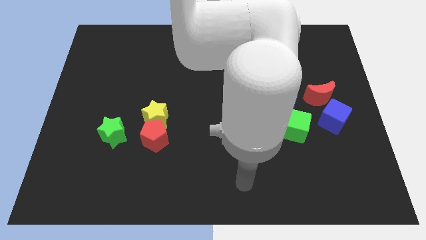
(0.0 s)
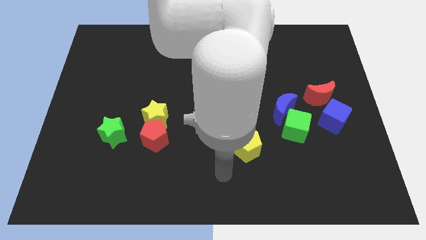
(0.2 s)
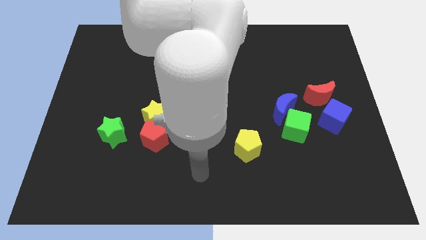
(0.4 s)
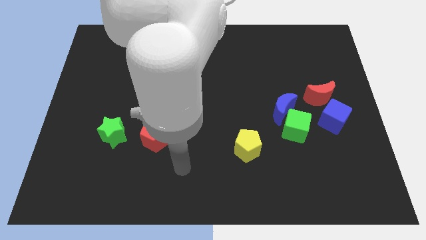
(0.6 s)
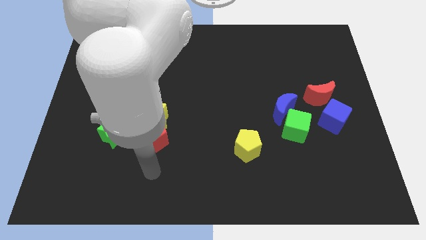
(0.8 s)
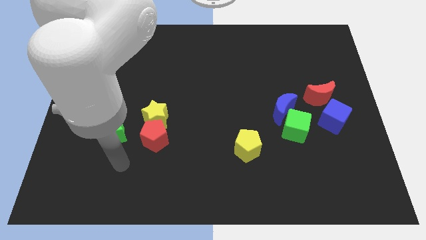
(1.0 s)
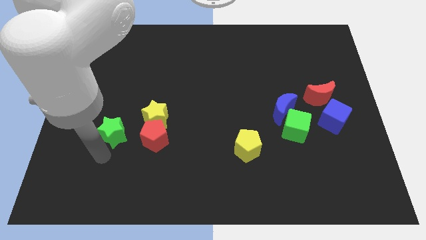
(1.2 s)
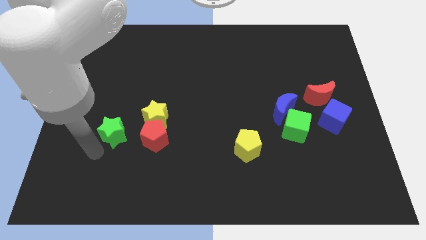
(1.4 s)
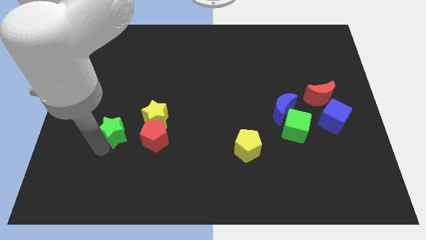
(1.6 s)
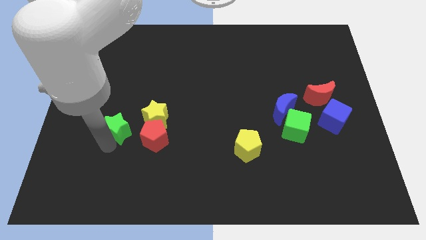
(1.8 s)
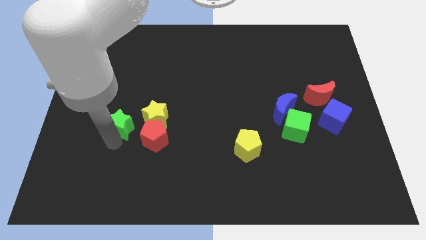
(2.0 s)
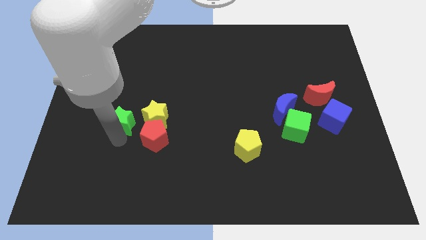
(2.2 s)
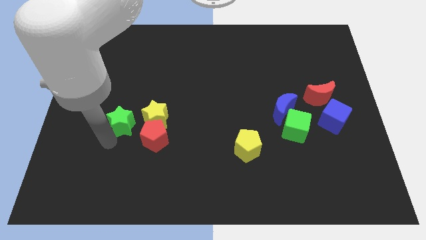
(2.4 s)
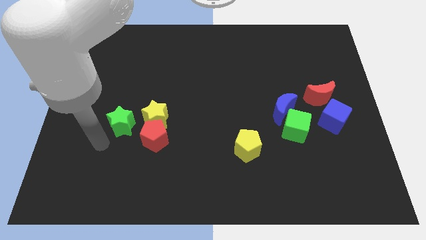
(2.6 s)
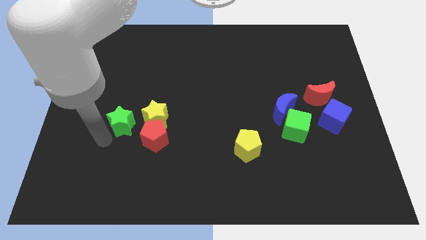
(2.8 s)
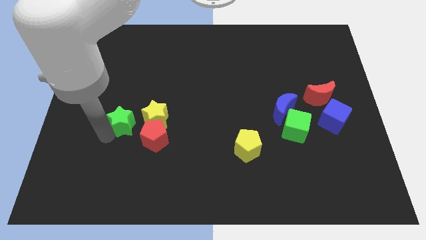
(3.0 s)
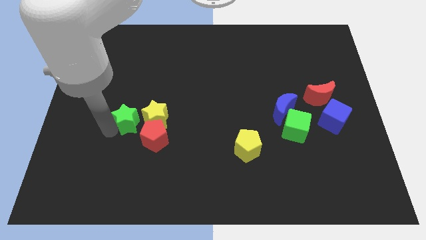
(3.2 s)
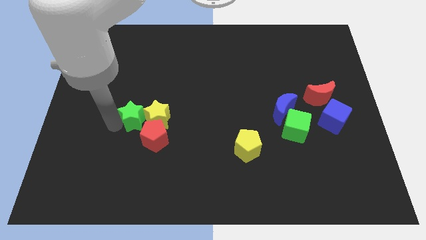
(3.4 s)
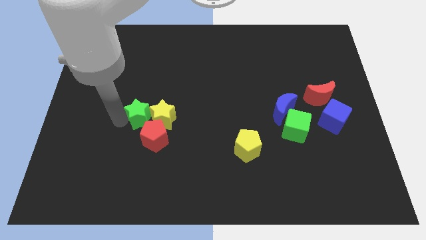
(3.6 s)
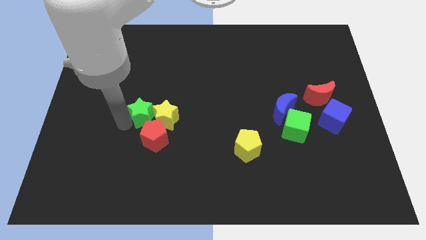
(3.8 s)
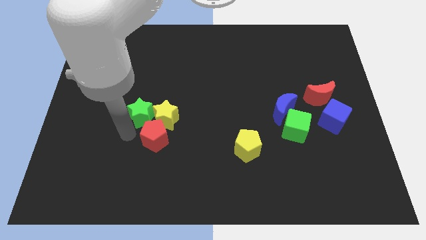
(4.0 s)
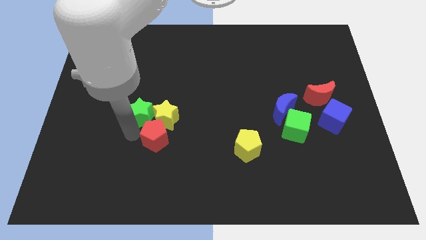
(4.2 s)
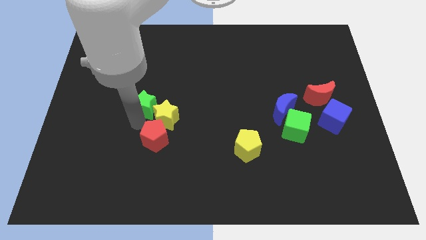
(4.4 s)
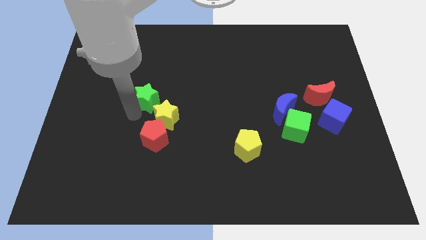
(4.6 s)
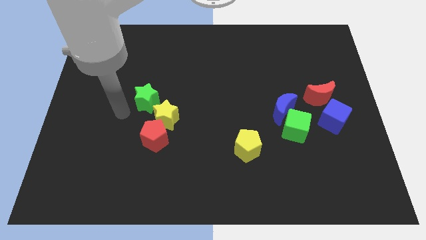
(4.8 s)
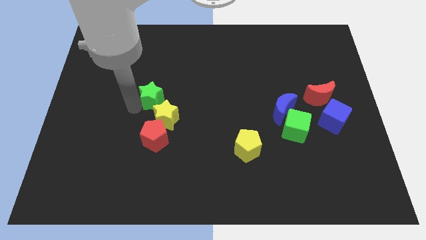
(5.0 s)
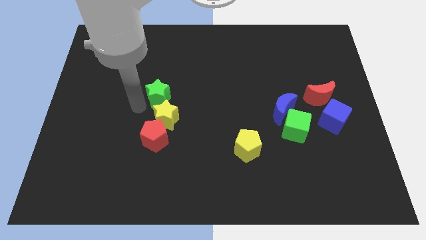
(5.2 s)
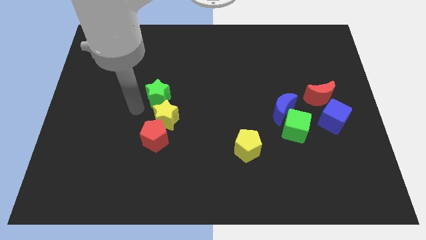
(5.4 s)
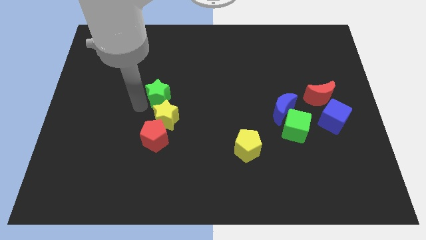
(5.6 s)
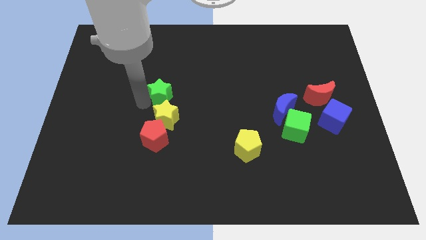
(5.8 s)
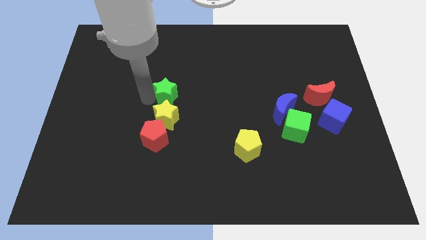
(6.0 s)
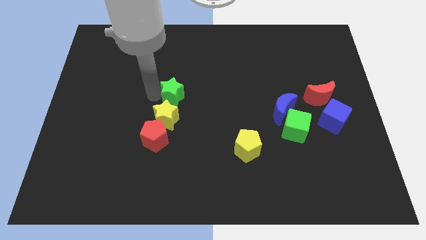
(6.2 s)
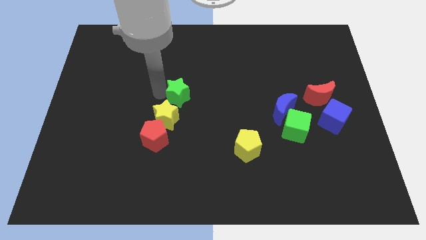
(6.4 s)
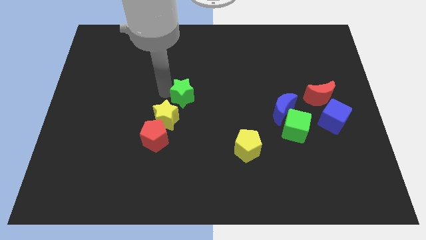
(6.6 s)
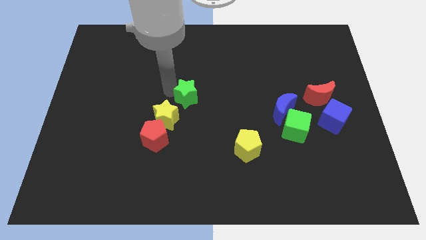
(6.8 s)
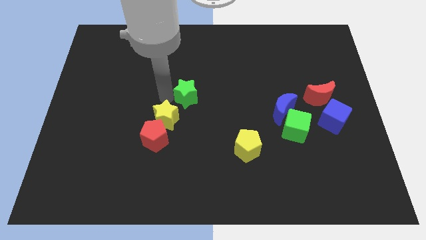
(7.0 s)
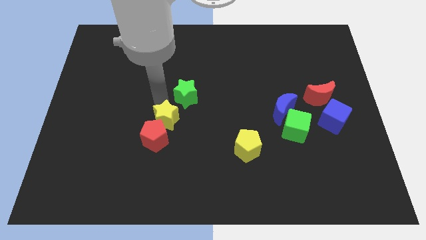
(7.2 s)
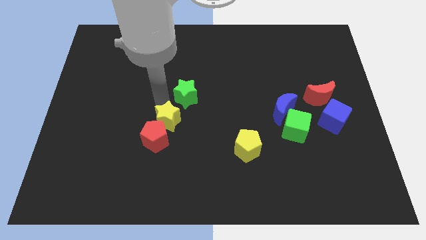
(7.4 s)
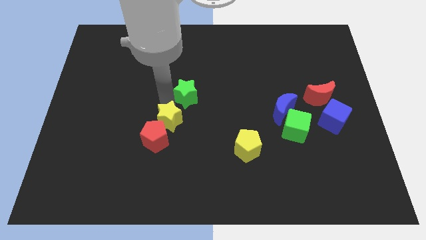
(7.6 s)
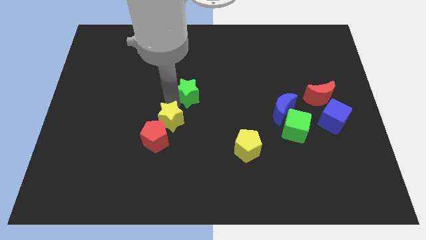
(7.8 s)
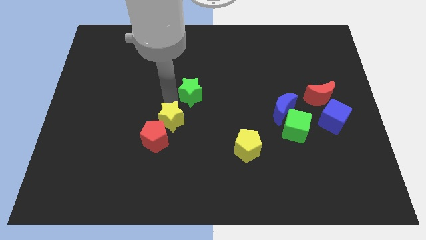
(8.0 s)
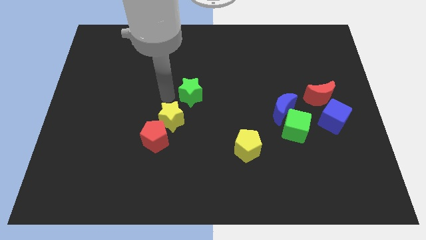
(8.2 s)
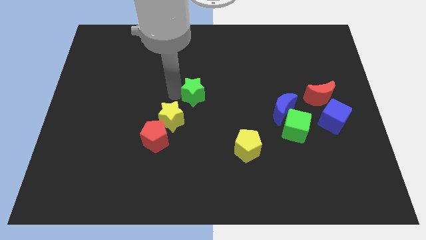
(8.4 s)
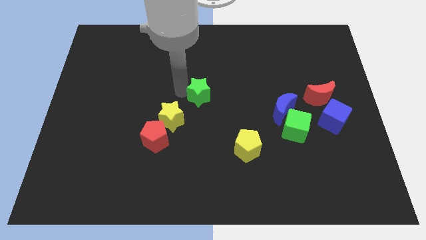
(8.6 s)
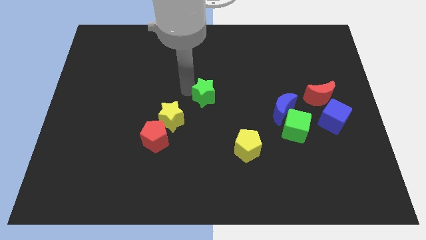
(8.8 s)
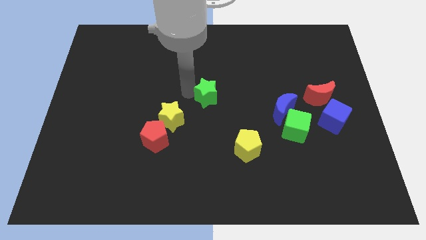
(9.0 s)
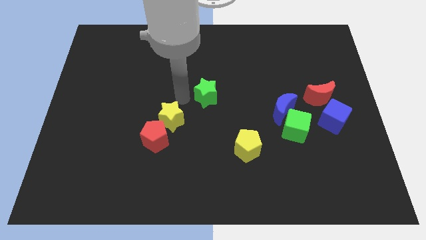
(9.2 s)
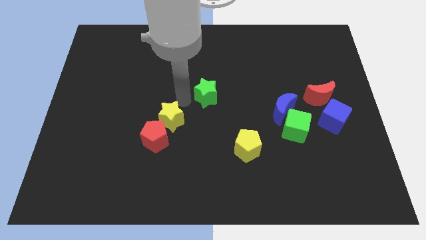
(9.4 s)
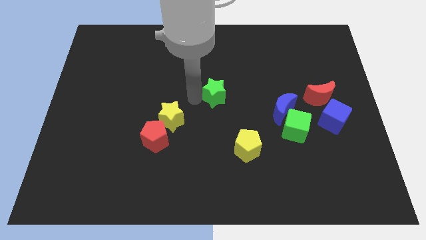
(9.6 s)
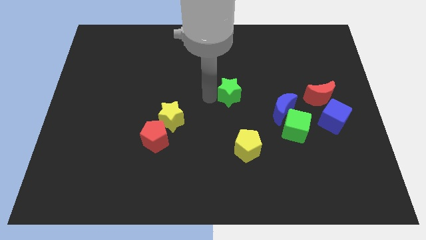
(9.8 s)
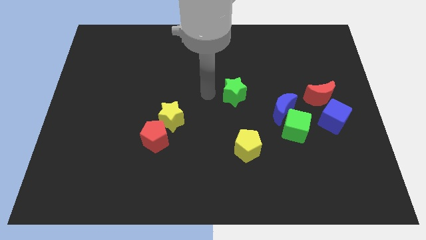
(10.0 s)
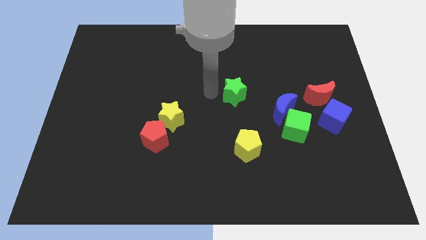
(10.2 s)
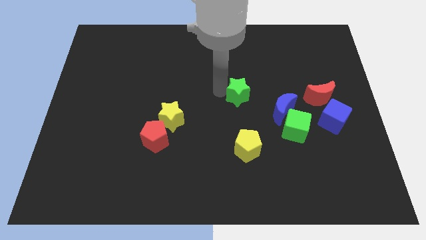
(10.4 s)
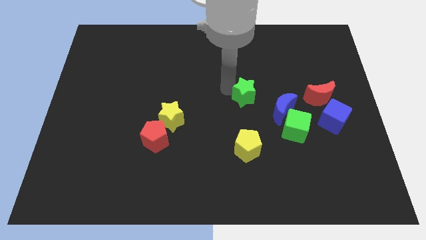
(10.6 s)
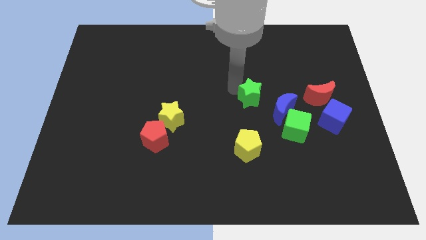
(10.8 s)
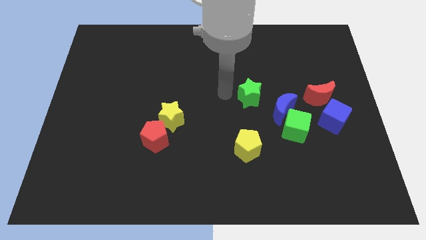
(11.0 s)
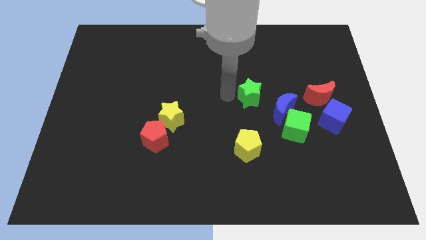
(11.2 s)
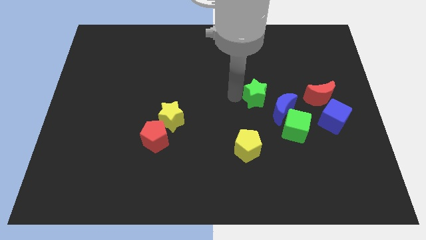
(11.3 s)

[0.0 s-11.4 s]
put the green star left of the red moon

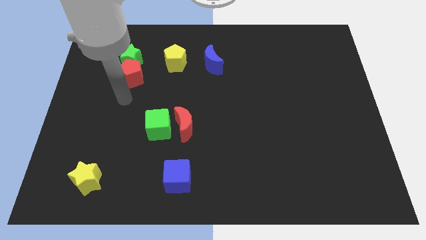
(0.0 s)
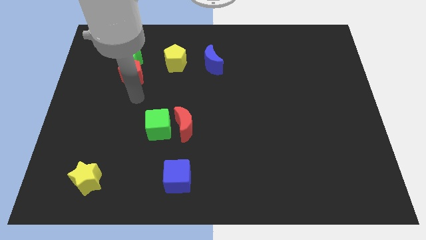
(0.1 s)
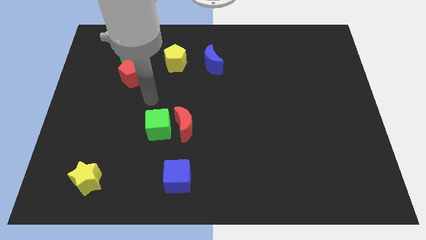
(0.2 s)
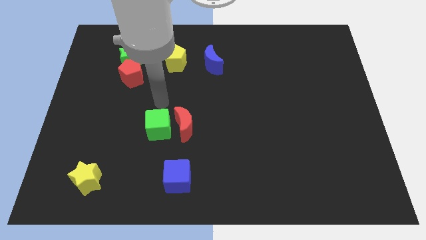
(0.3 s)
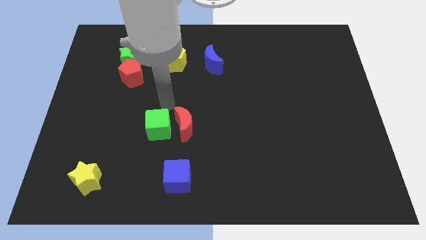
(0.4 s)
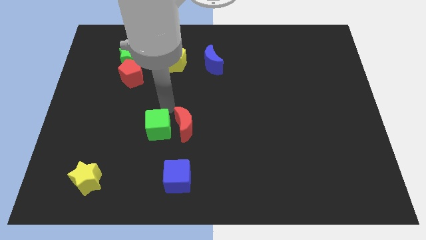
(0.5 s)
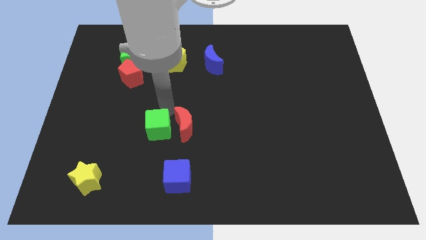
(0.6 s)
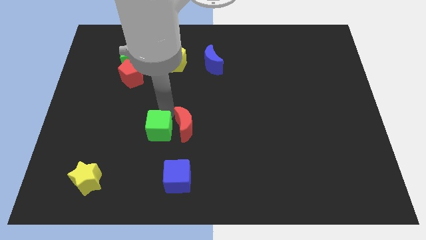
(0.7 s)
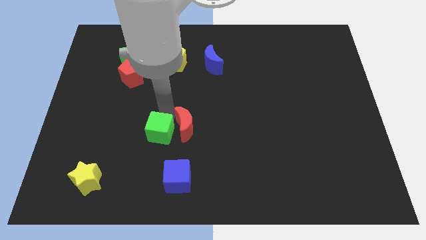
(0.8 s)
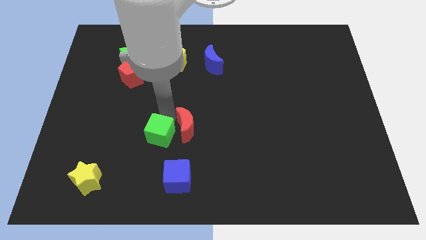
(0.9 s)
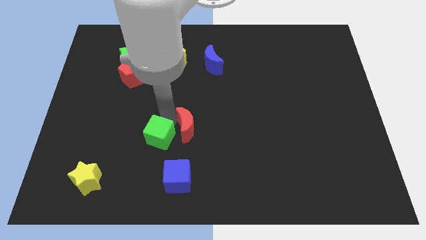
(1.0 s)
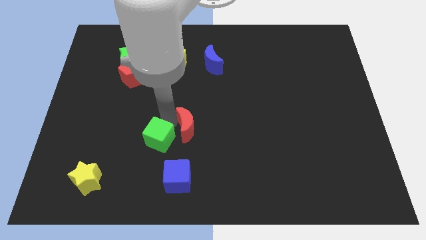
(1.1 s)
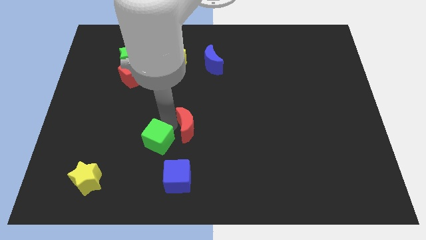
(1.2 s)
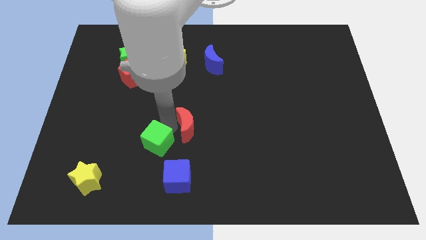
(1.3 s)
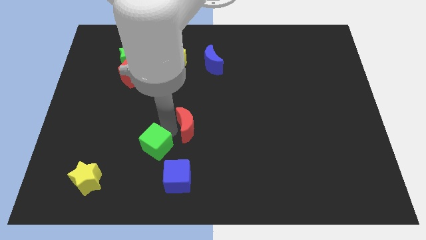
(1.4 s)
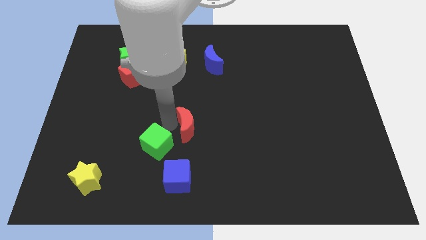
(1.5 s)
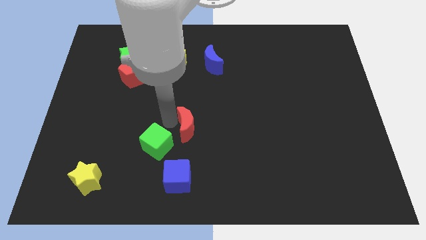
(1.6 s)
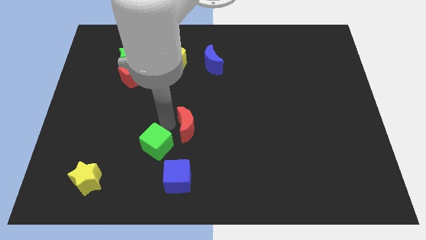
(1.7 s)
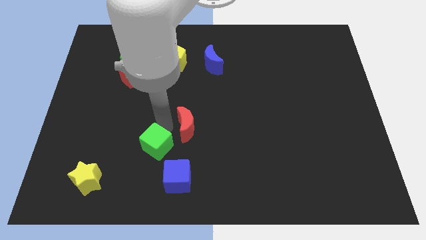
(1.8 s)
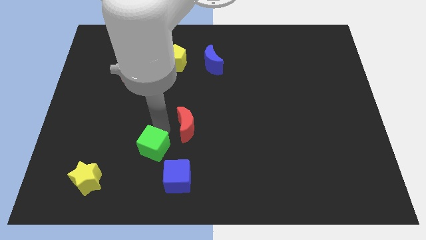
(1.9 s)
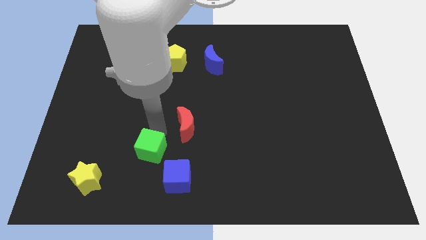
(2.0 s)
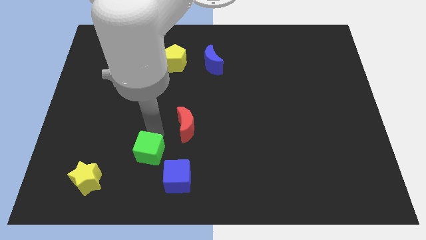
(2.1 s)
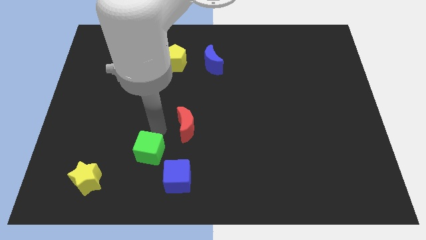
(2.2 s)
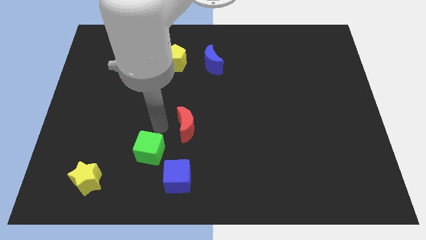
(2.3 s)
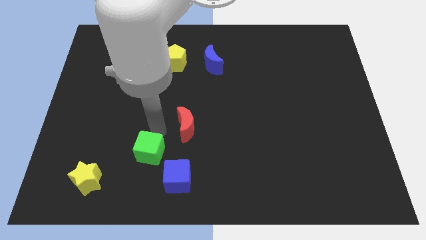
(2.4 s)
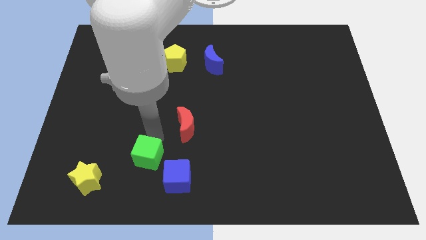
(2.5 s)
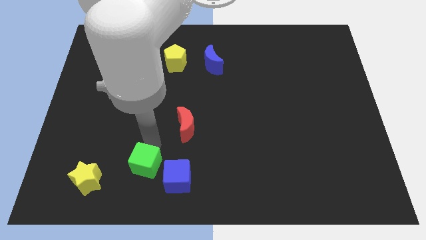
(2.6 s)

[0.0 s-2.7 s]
put the green cube right of the yellow star
